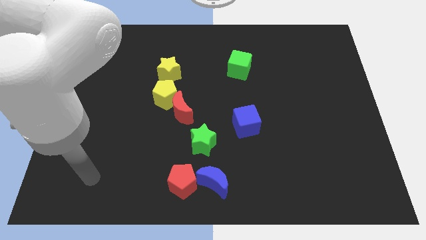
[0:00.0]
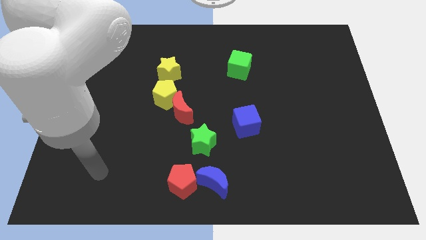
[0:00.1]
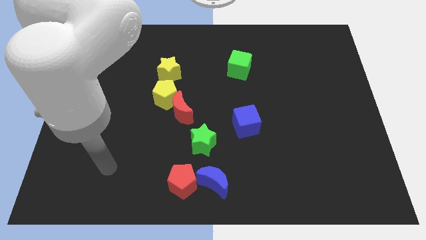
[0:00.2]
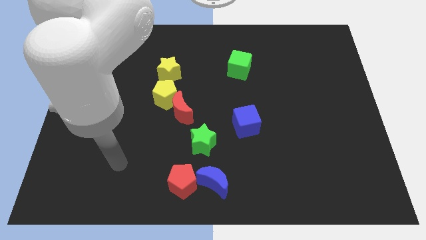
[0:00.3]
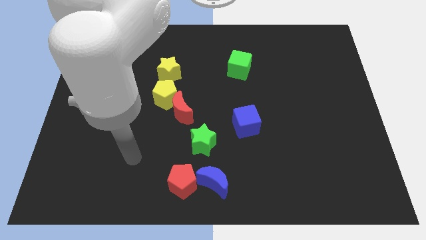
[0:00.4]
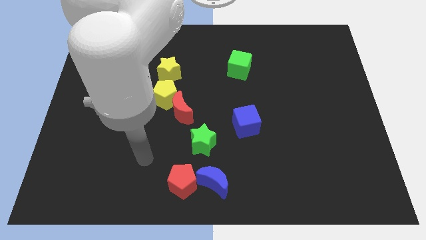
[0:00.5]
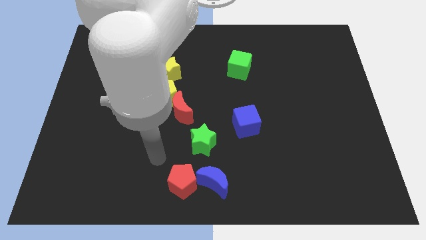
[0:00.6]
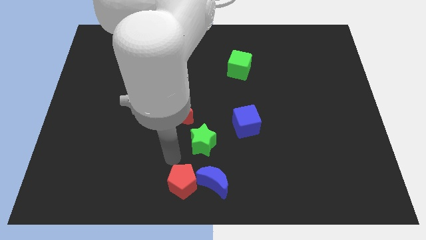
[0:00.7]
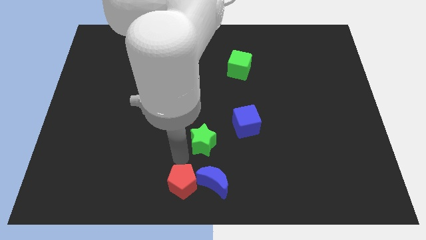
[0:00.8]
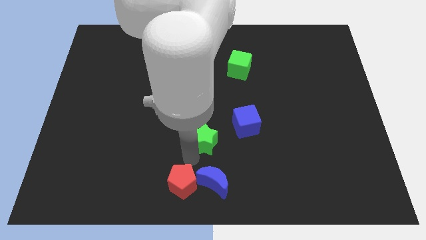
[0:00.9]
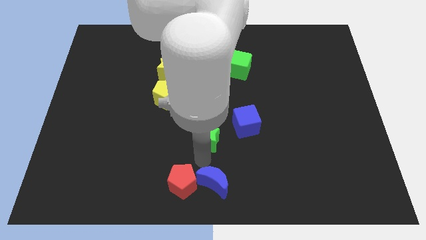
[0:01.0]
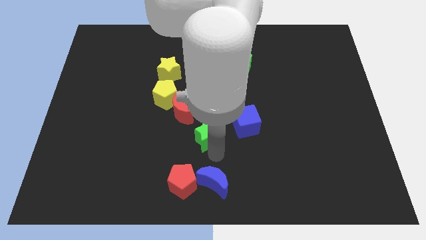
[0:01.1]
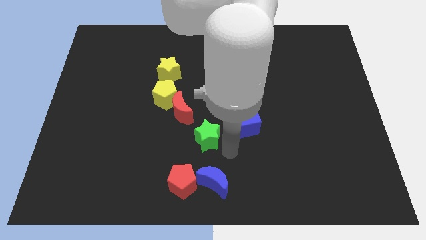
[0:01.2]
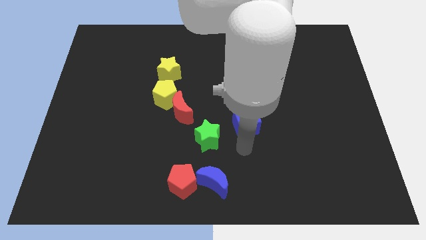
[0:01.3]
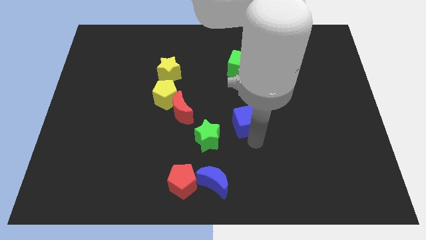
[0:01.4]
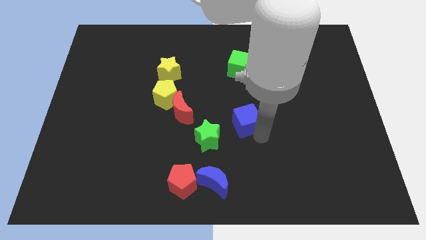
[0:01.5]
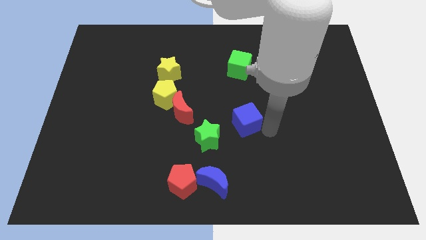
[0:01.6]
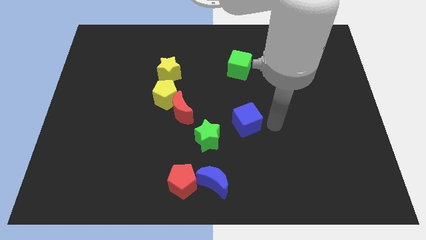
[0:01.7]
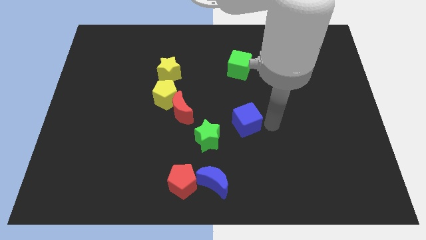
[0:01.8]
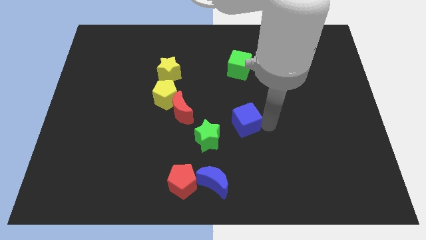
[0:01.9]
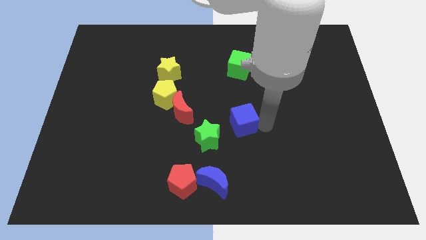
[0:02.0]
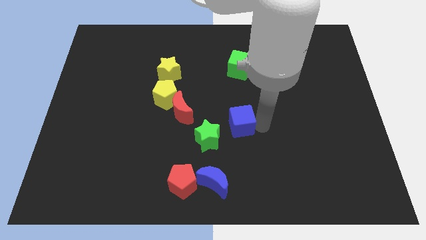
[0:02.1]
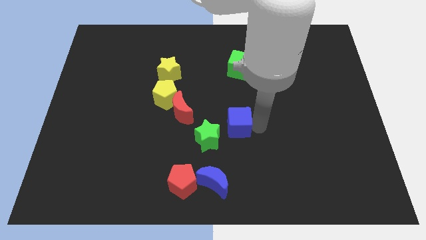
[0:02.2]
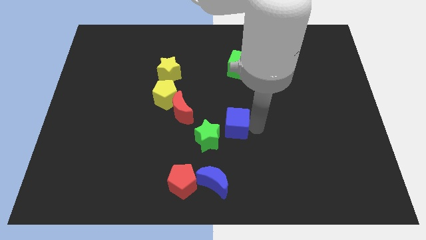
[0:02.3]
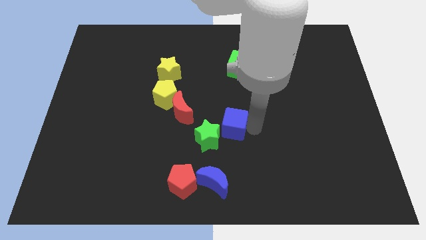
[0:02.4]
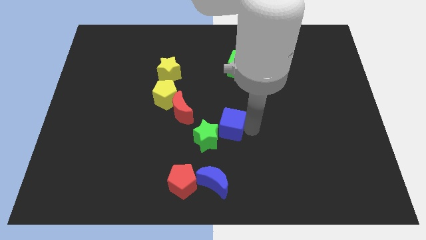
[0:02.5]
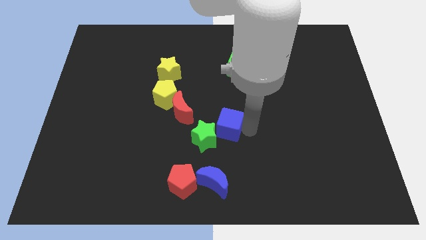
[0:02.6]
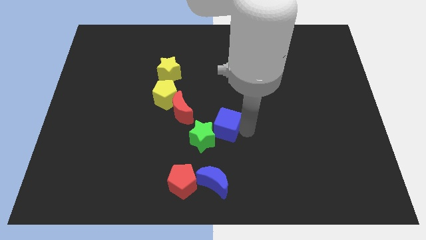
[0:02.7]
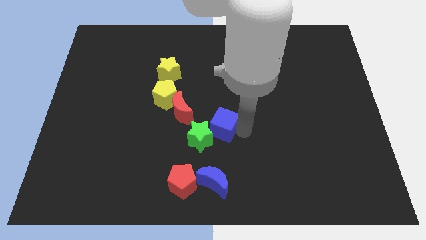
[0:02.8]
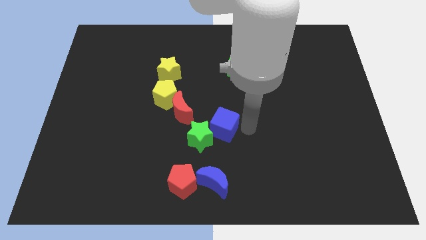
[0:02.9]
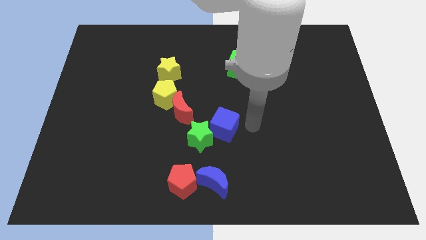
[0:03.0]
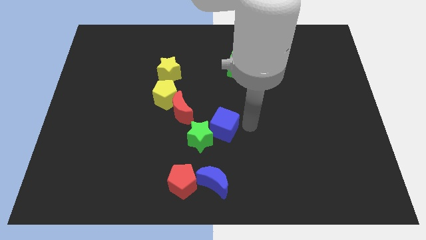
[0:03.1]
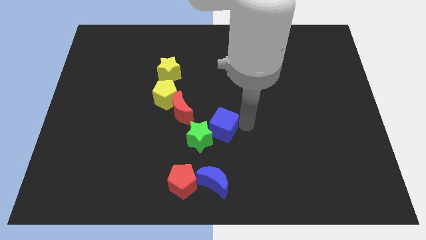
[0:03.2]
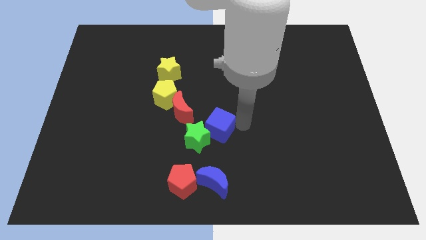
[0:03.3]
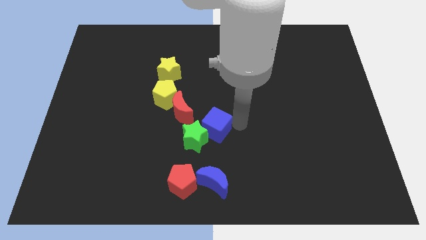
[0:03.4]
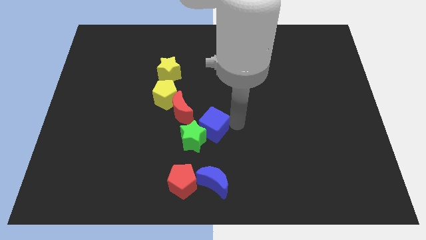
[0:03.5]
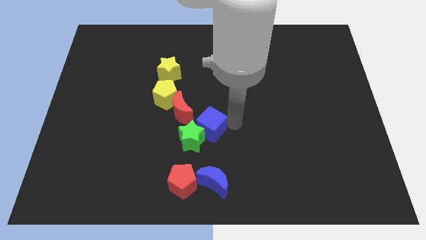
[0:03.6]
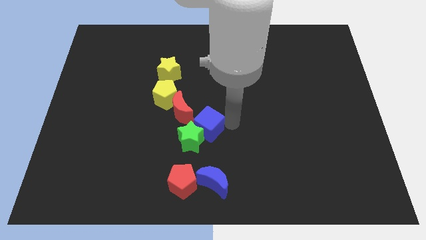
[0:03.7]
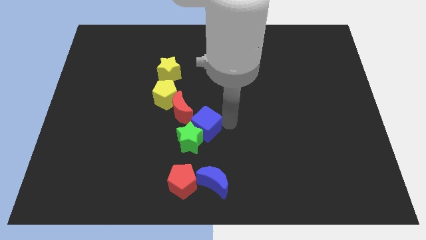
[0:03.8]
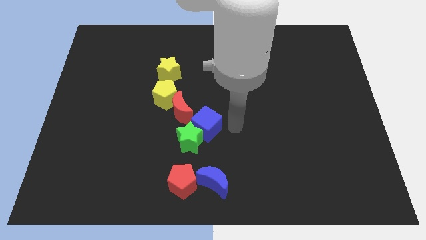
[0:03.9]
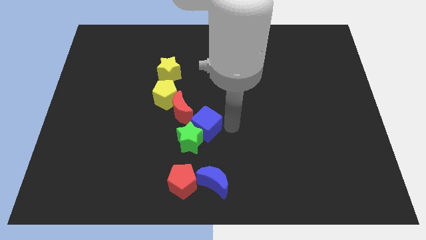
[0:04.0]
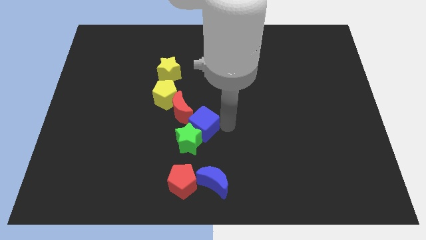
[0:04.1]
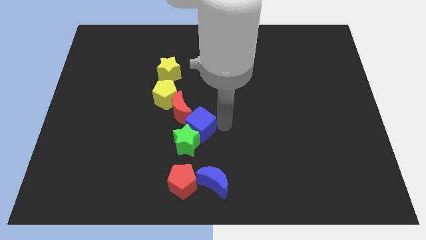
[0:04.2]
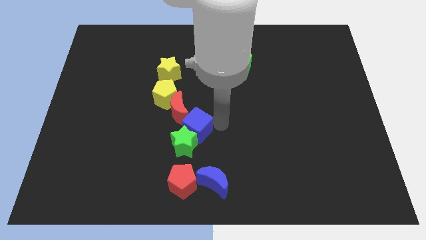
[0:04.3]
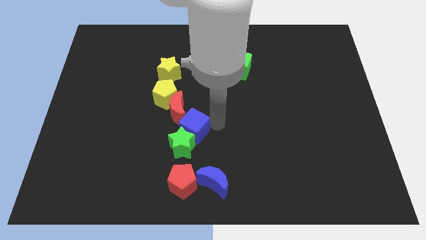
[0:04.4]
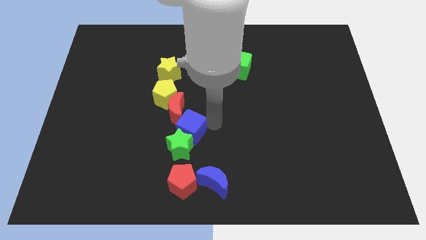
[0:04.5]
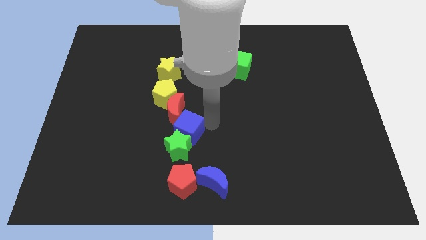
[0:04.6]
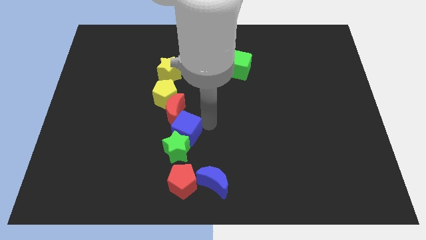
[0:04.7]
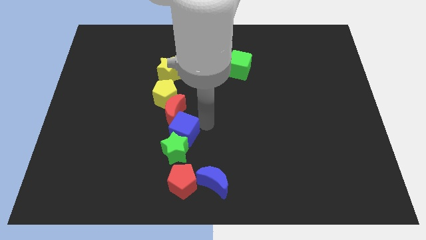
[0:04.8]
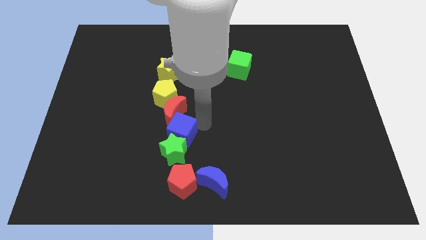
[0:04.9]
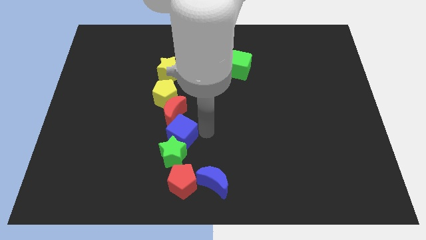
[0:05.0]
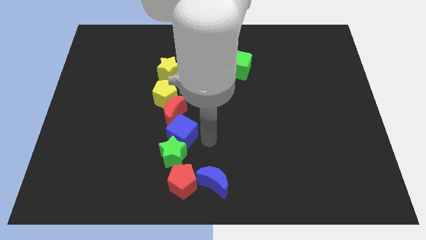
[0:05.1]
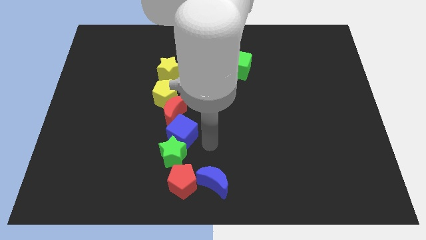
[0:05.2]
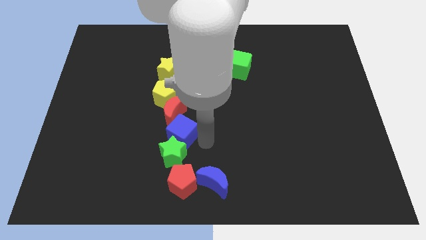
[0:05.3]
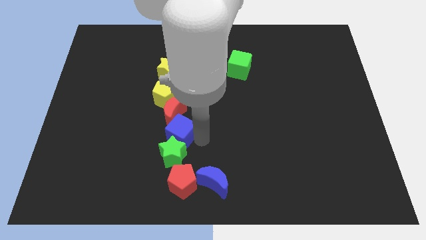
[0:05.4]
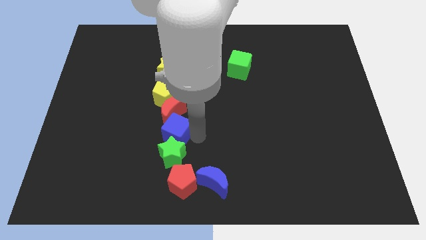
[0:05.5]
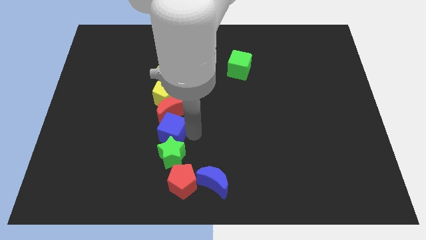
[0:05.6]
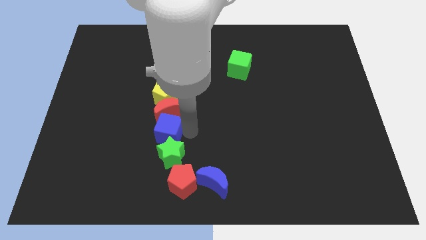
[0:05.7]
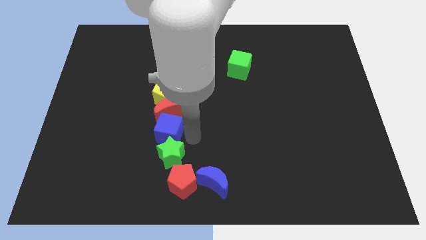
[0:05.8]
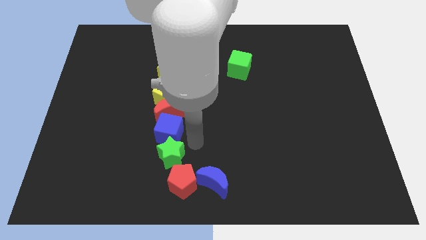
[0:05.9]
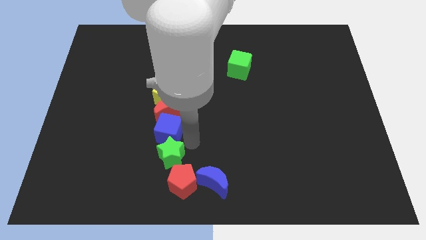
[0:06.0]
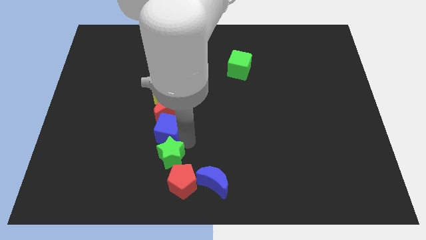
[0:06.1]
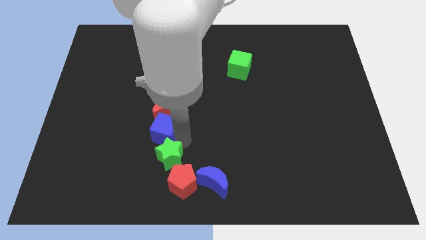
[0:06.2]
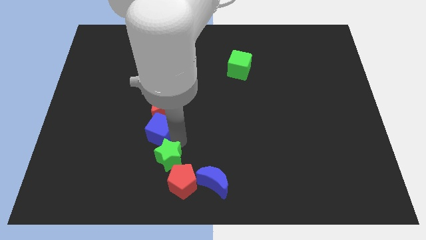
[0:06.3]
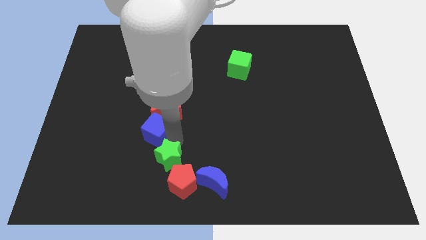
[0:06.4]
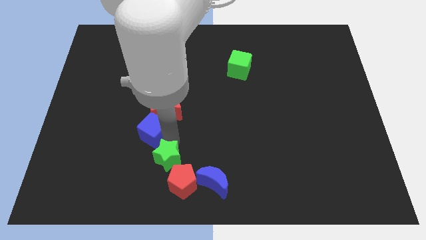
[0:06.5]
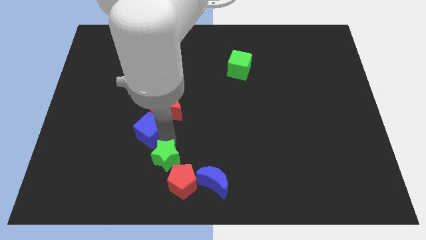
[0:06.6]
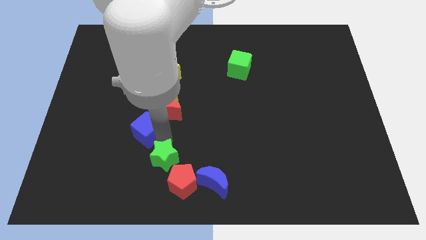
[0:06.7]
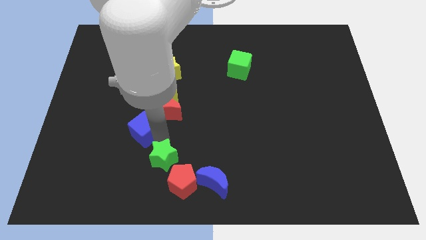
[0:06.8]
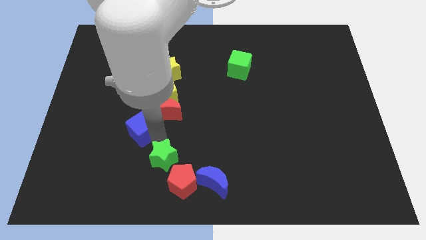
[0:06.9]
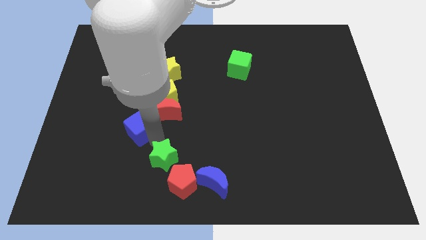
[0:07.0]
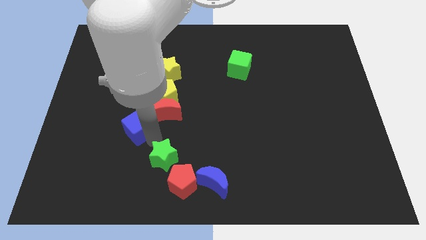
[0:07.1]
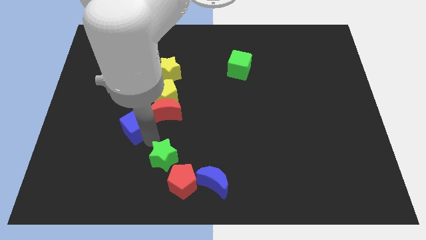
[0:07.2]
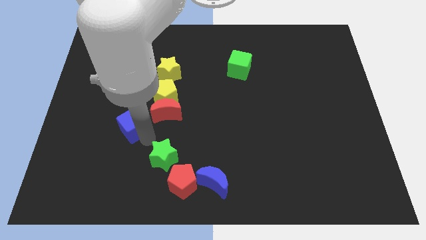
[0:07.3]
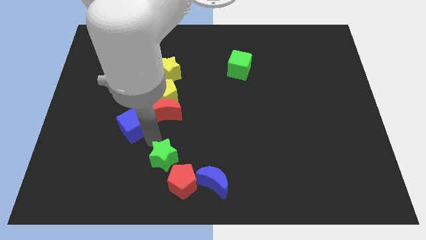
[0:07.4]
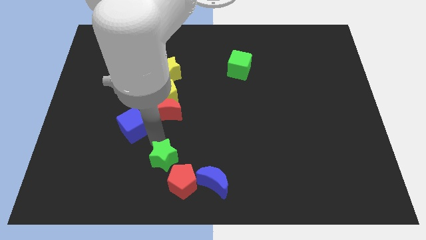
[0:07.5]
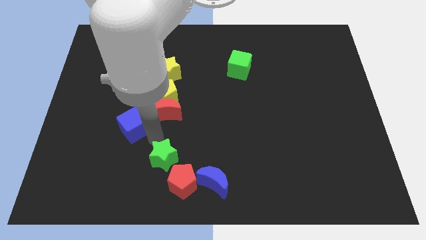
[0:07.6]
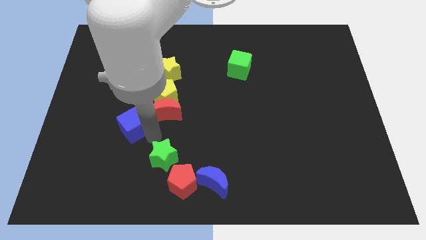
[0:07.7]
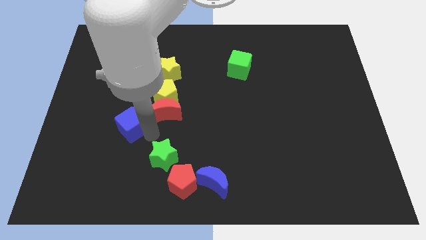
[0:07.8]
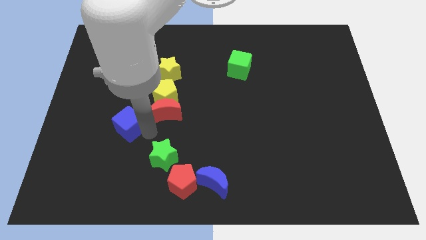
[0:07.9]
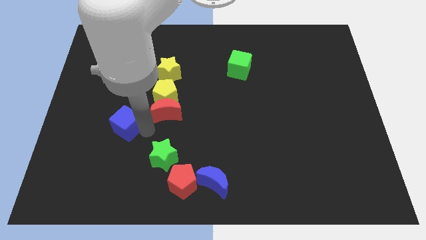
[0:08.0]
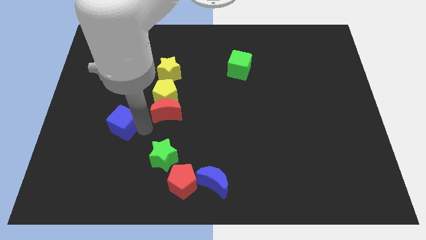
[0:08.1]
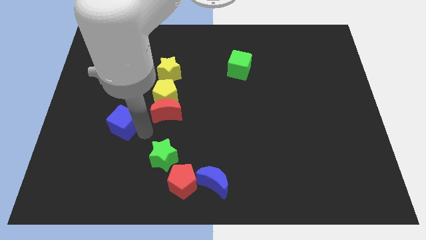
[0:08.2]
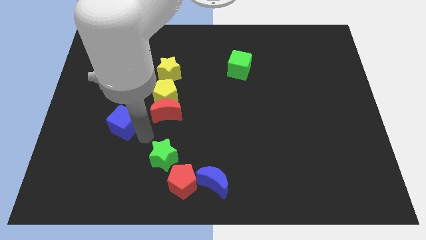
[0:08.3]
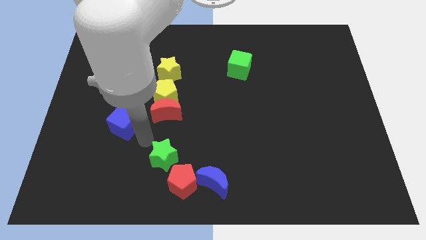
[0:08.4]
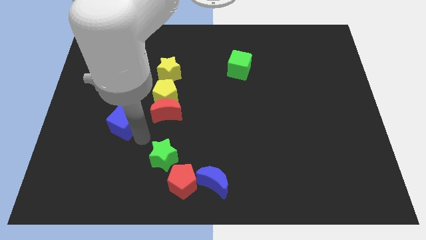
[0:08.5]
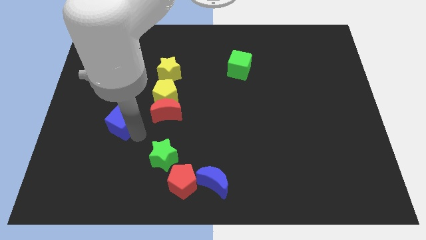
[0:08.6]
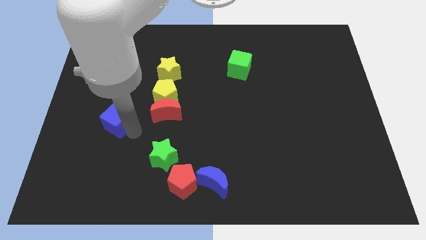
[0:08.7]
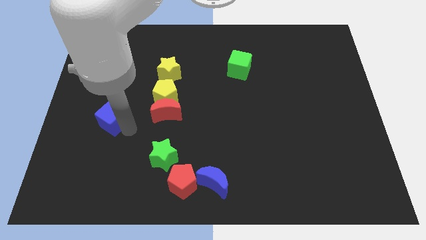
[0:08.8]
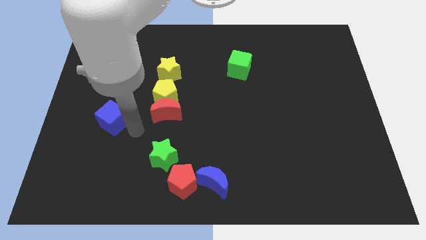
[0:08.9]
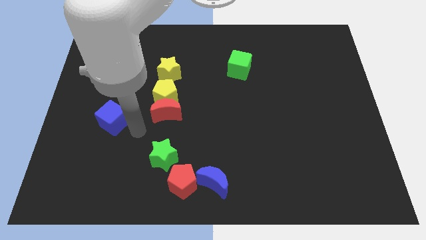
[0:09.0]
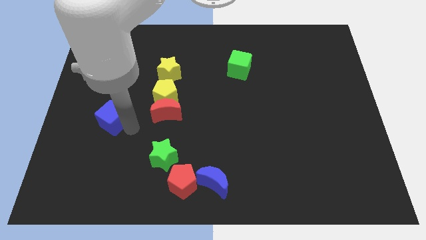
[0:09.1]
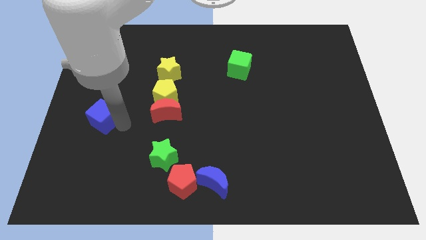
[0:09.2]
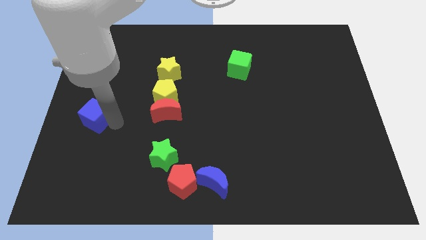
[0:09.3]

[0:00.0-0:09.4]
put the blue cube to the center left
